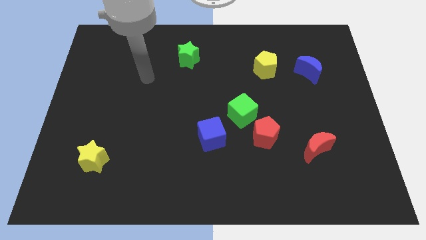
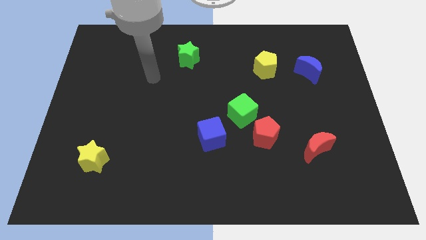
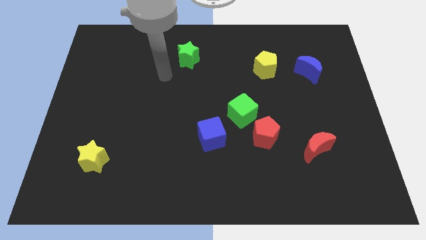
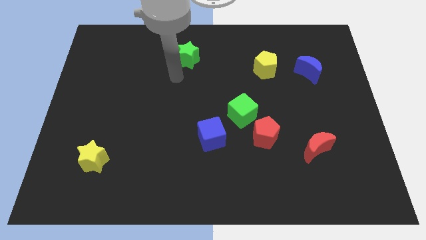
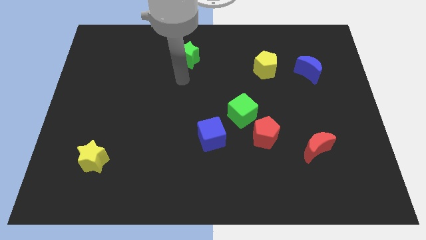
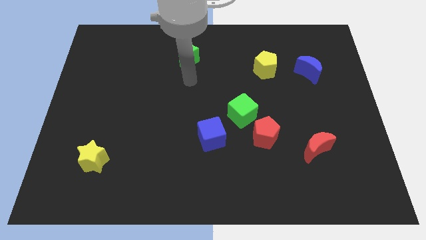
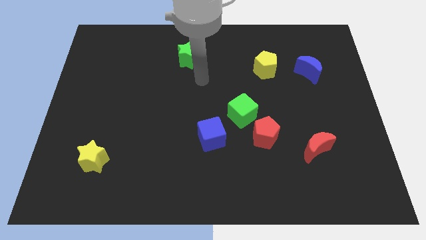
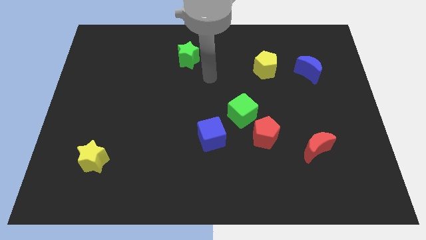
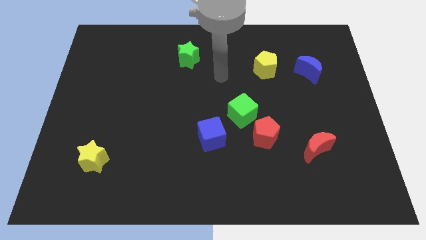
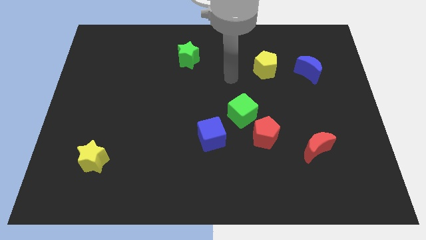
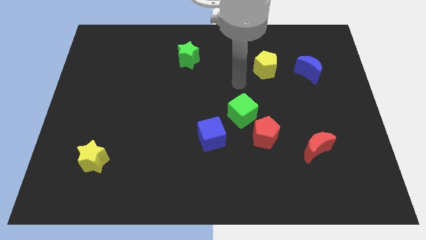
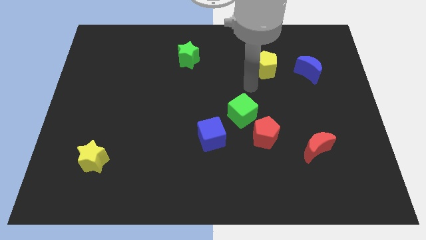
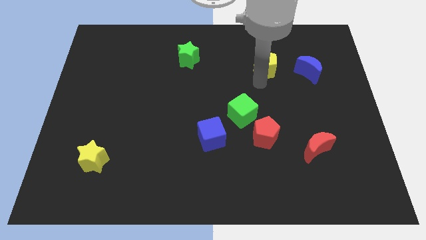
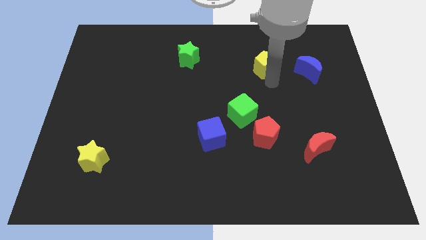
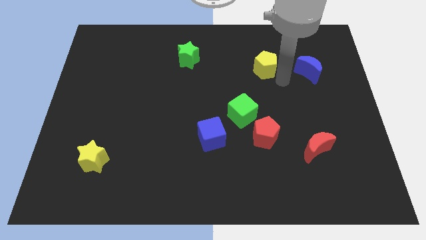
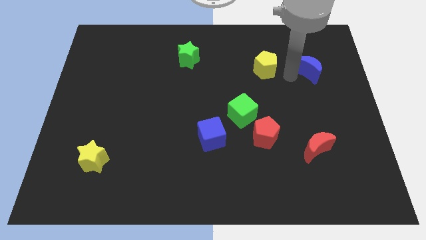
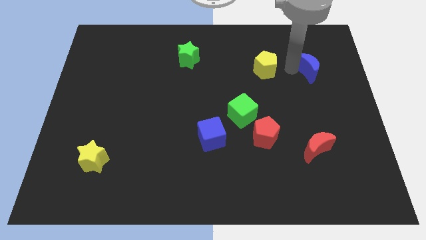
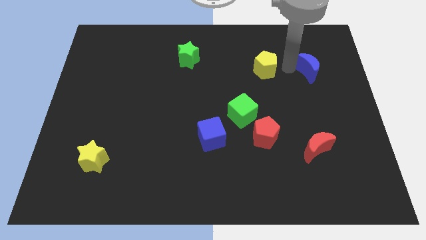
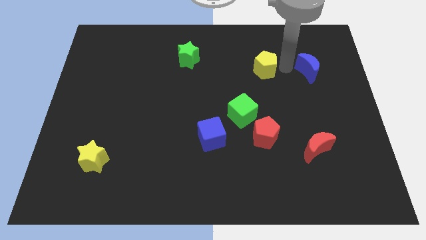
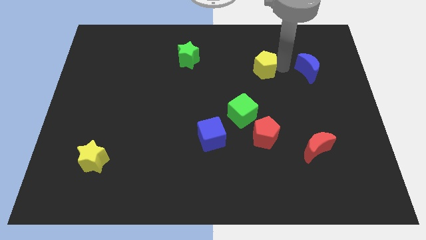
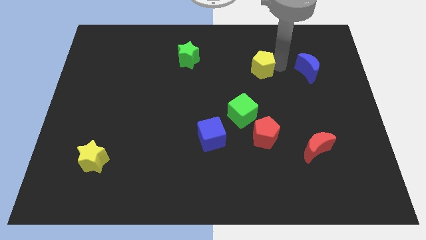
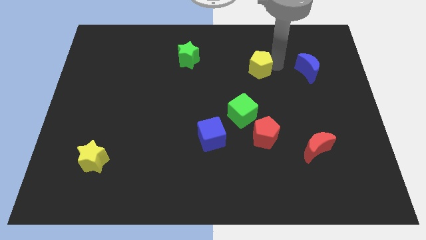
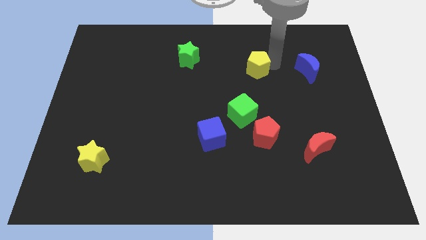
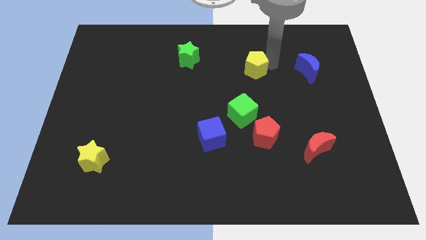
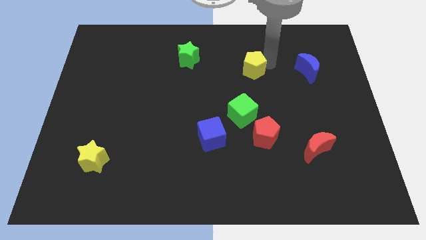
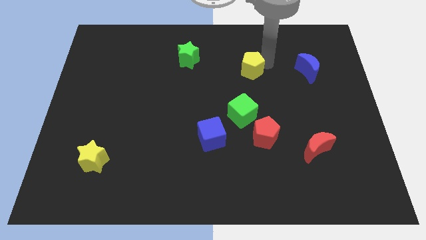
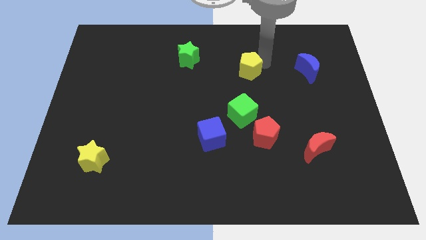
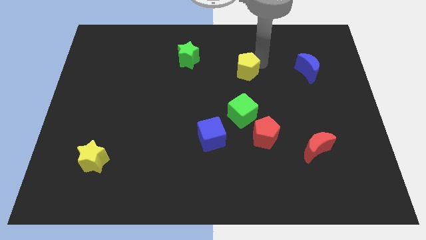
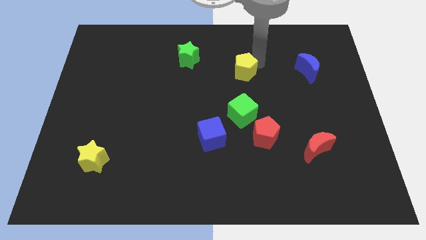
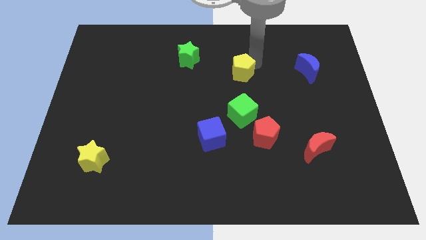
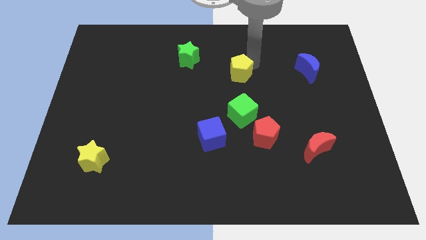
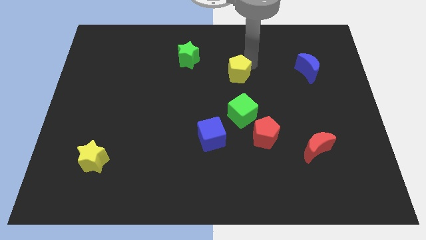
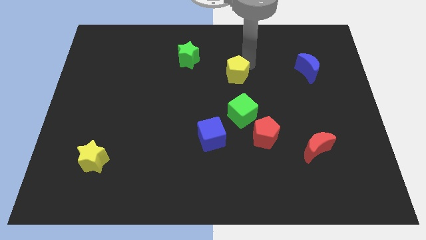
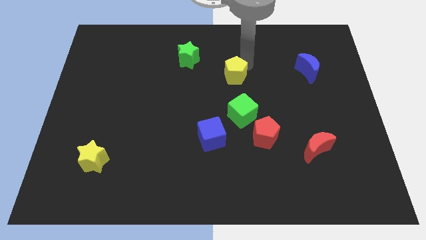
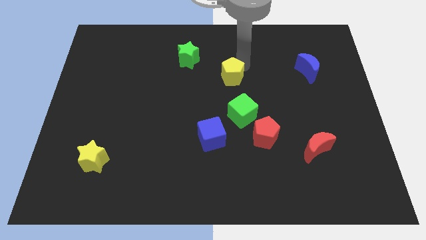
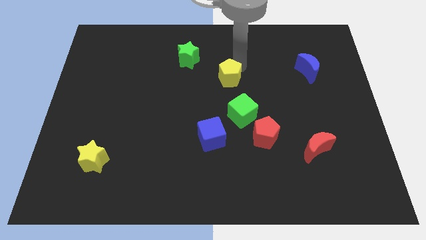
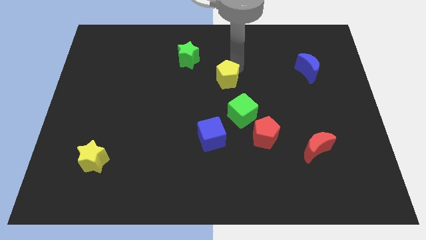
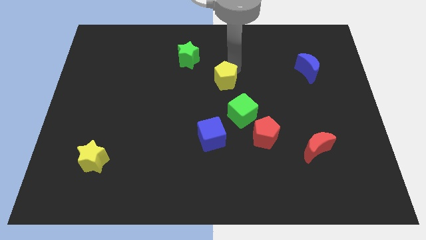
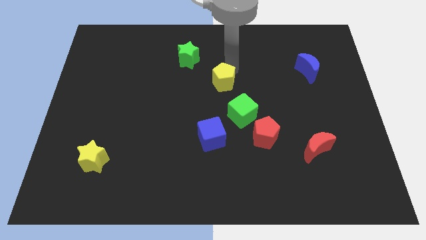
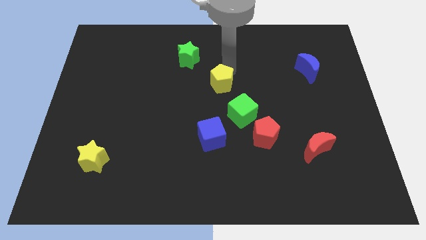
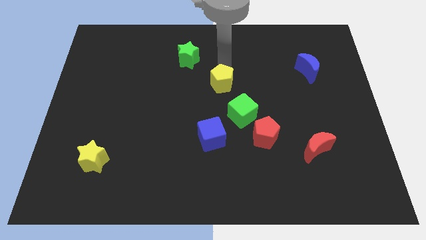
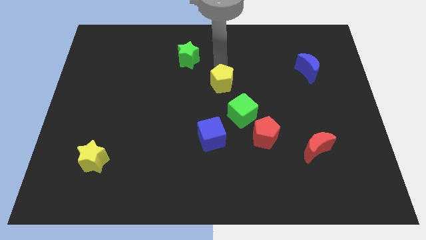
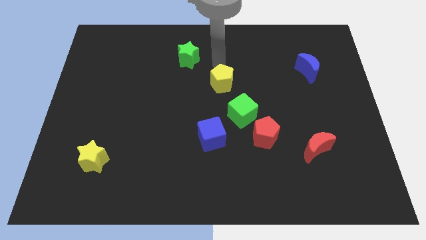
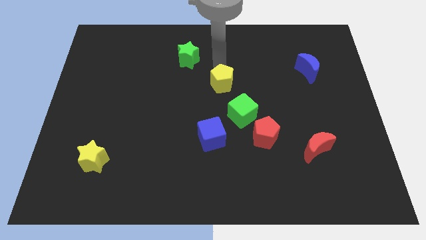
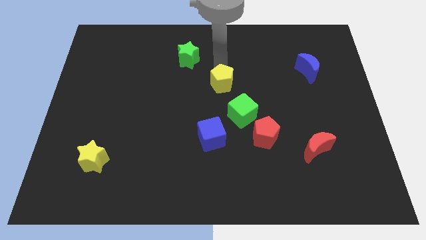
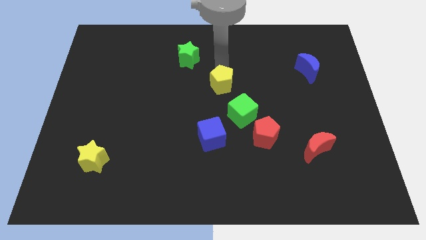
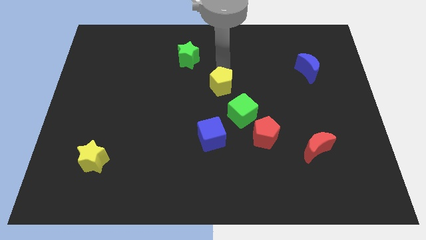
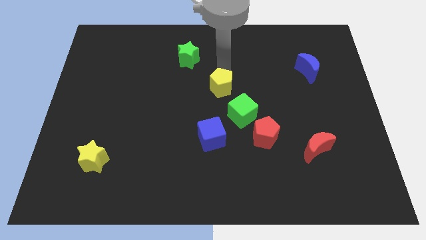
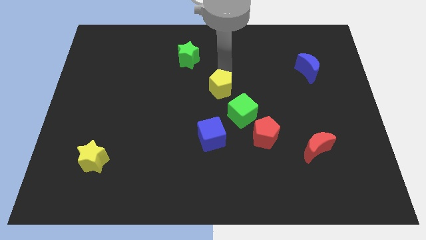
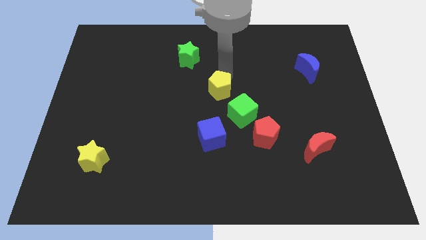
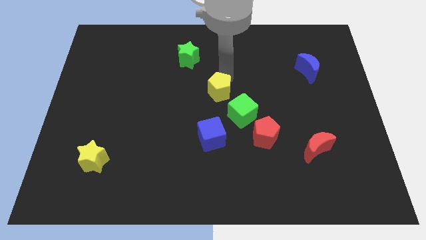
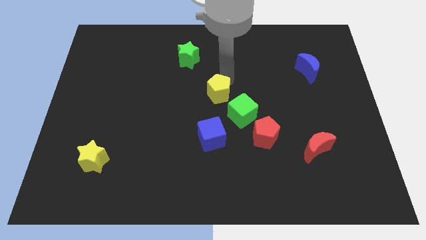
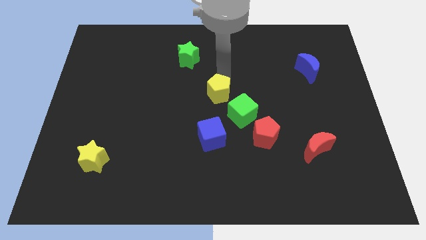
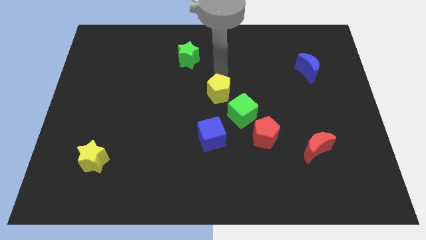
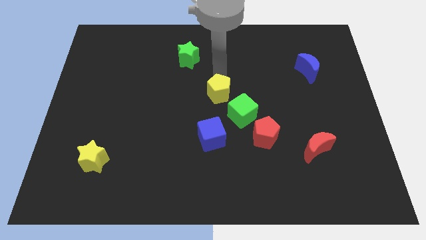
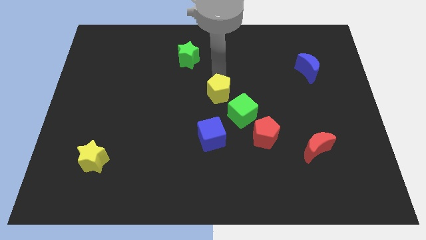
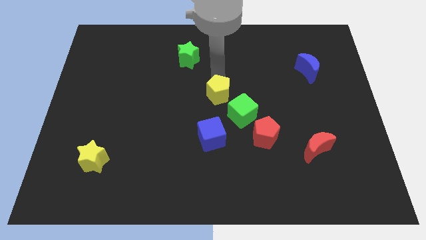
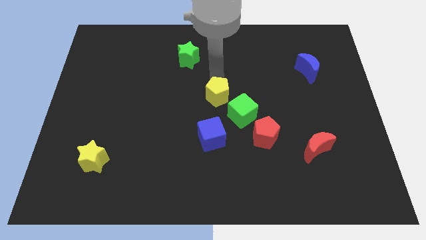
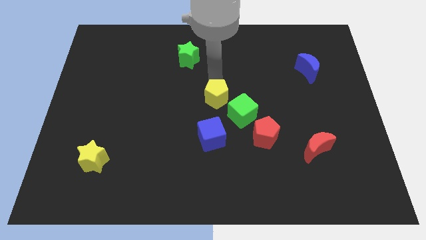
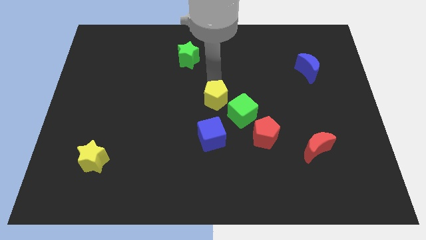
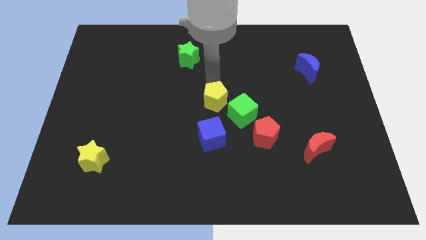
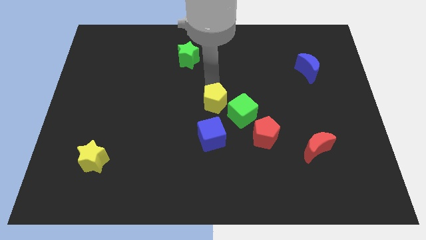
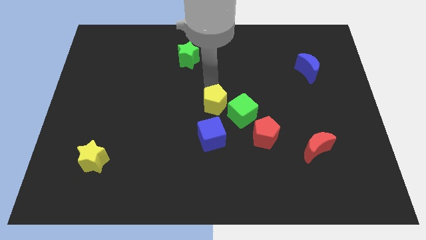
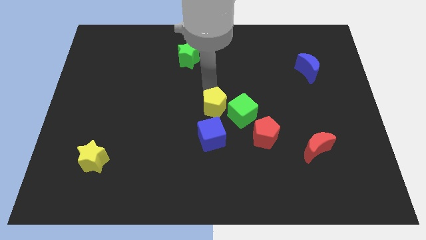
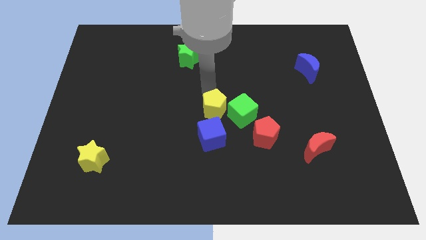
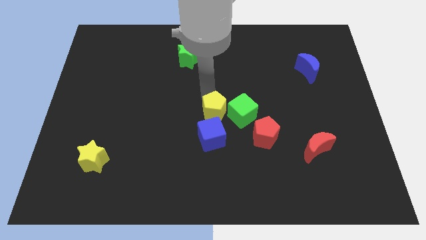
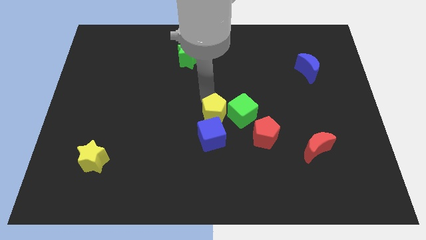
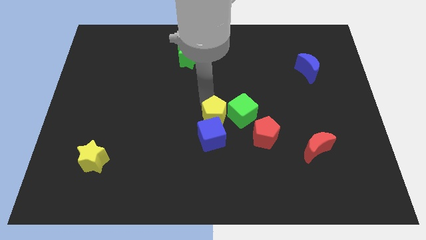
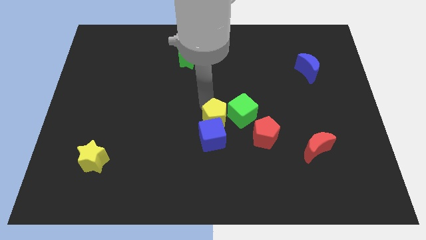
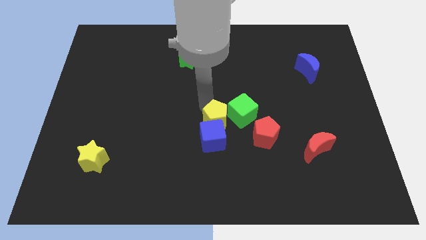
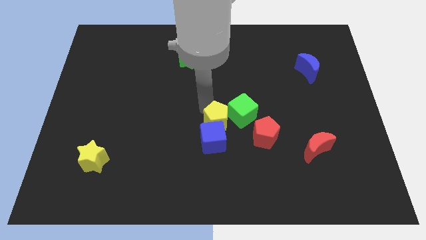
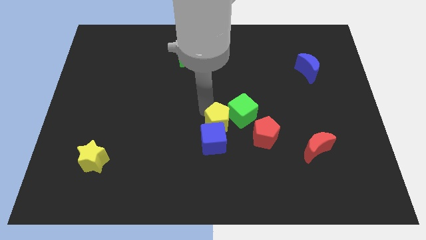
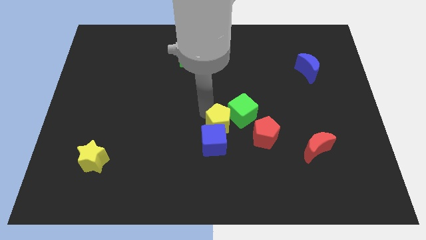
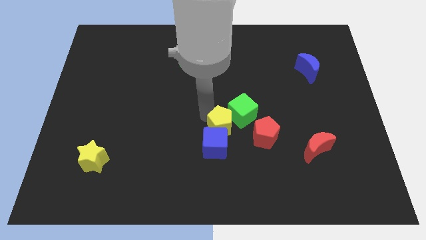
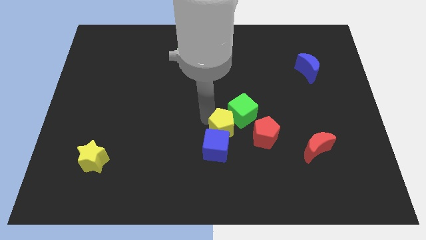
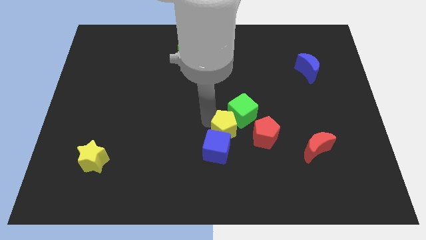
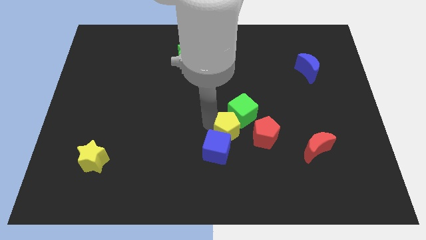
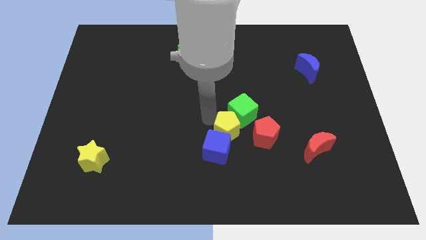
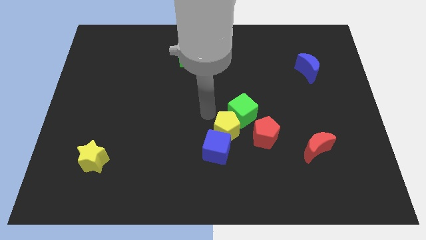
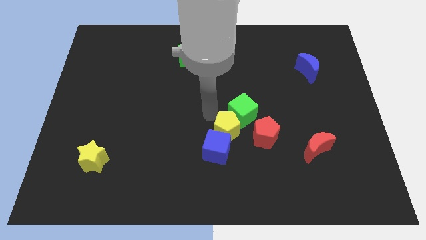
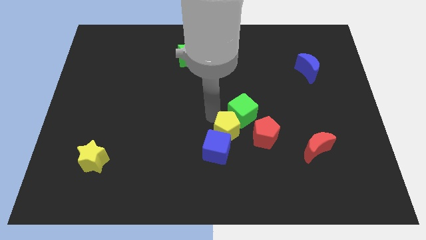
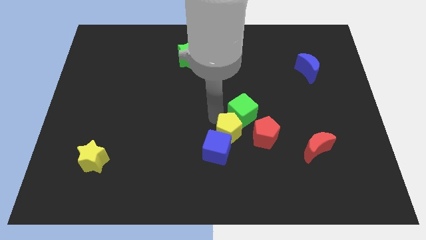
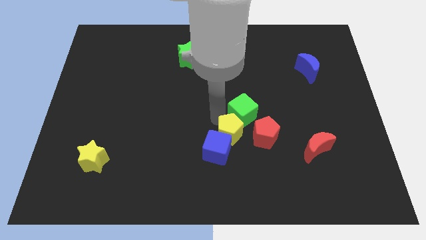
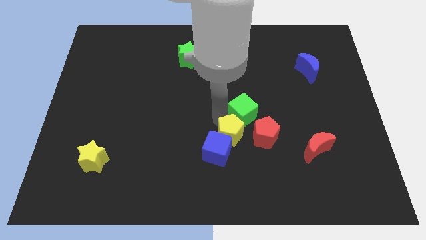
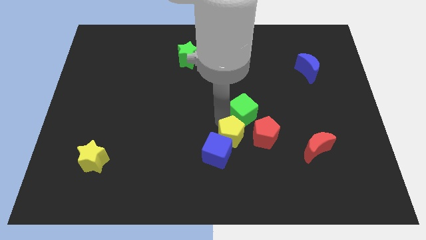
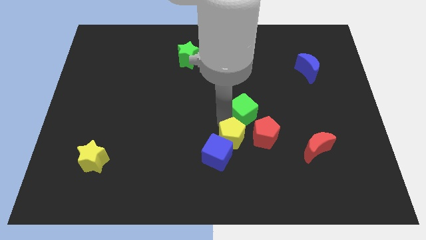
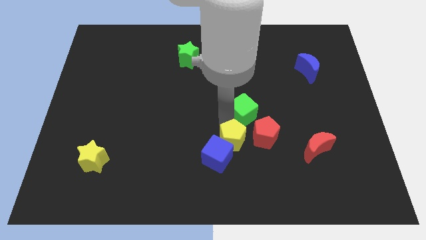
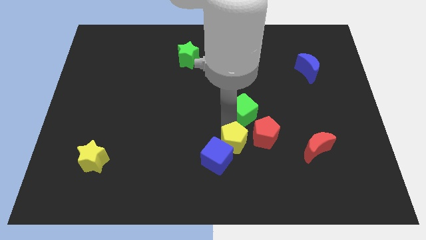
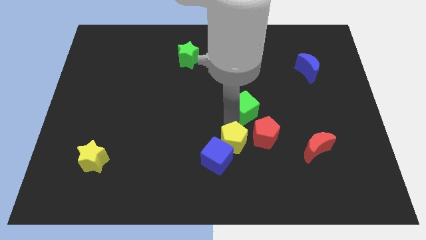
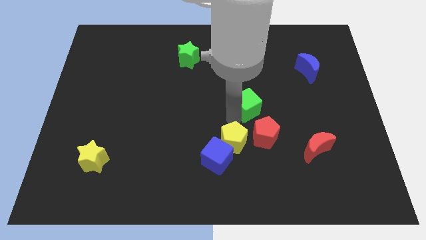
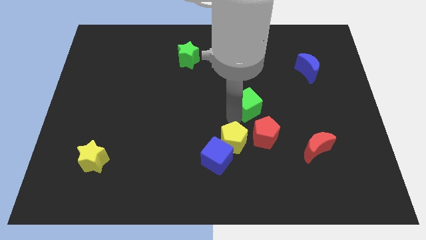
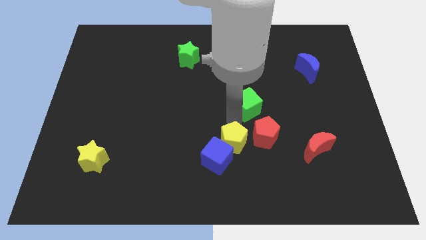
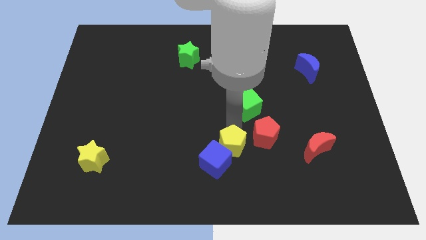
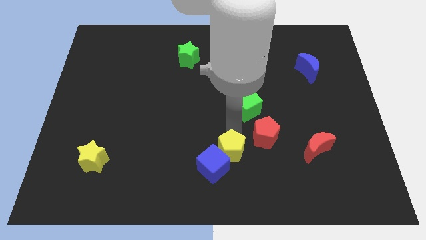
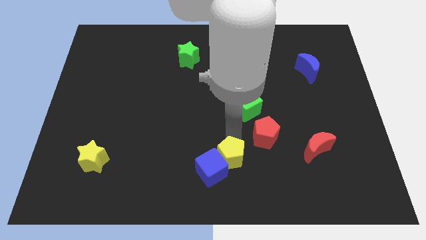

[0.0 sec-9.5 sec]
move the yellow pentagon to the bottom
